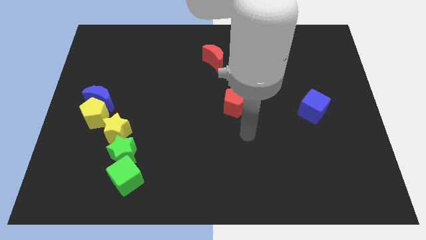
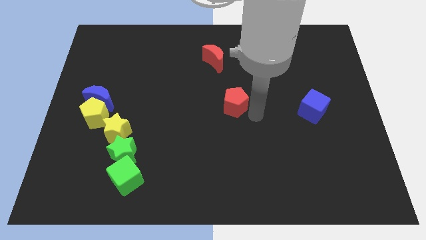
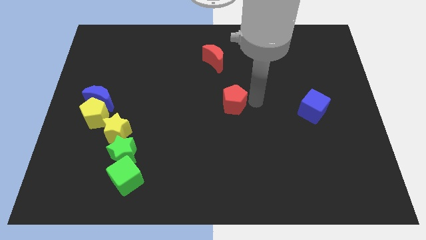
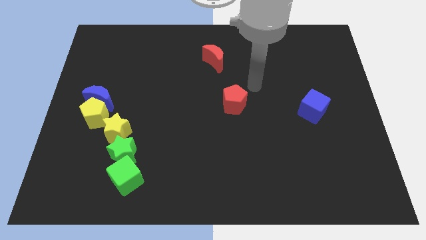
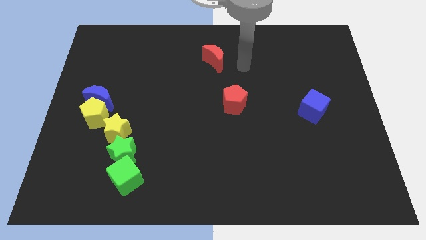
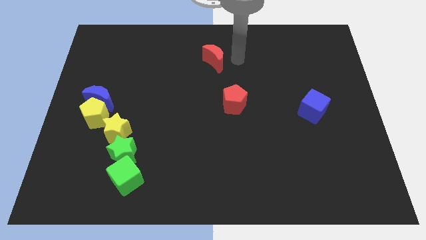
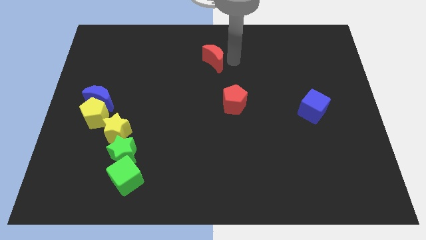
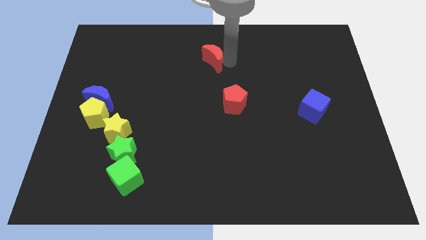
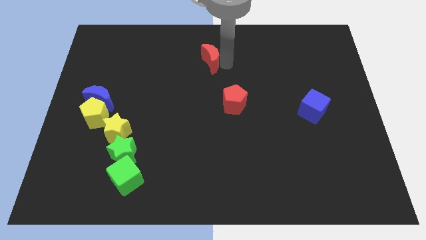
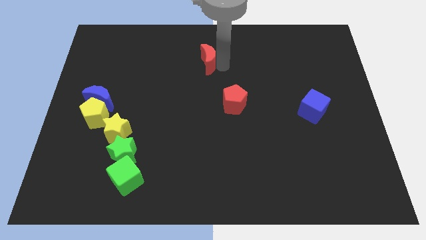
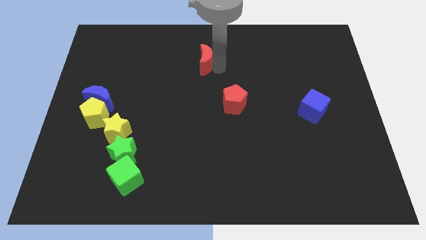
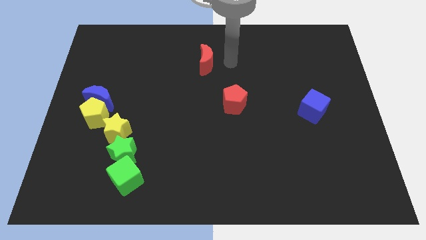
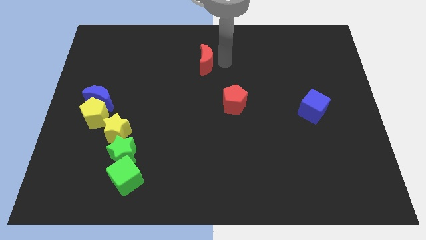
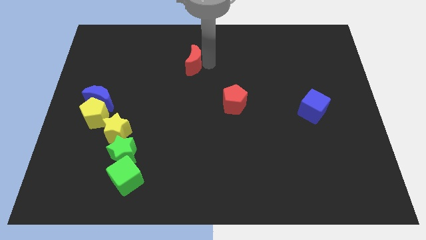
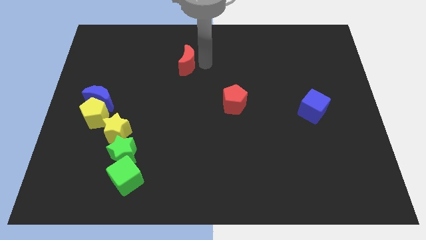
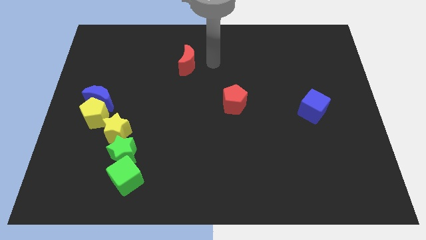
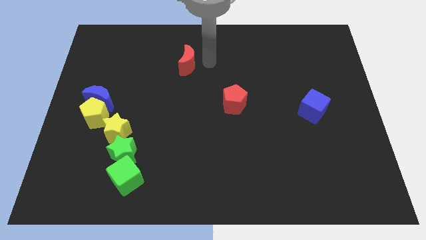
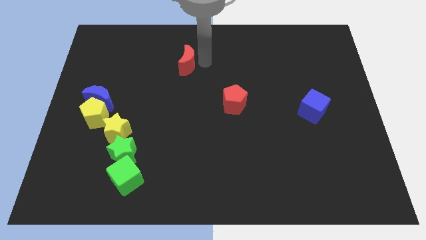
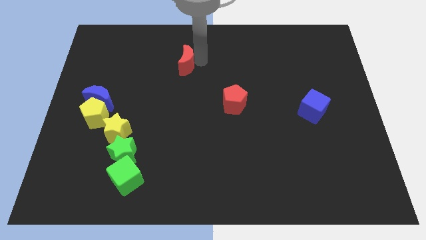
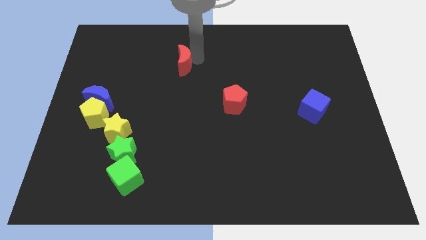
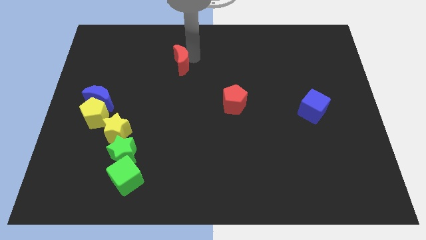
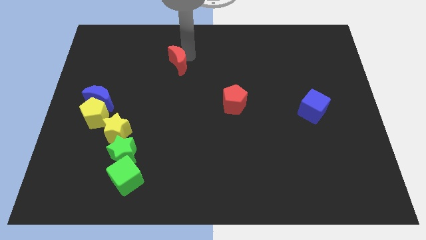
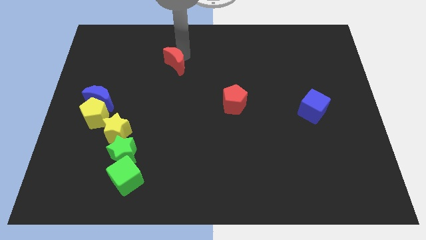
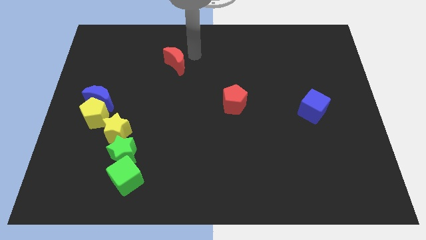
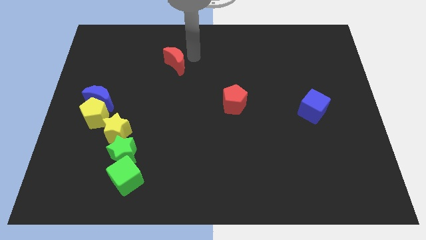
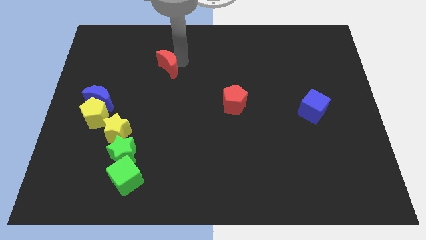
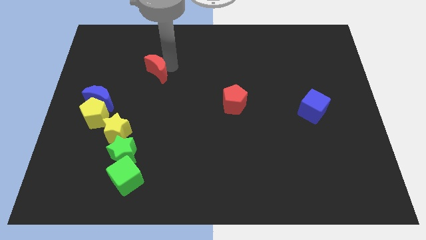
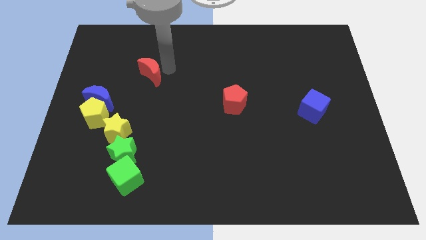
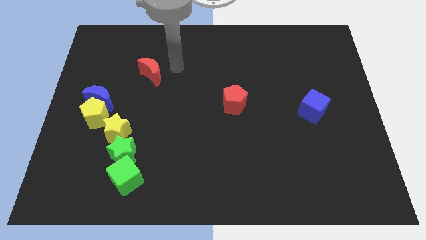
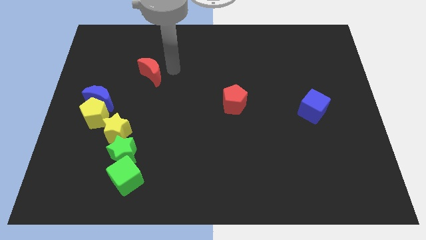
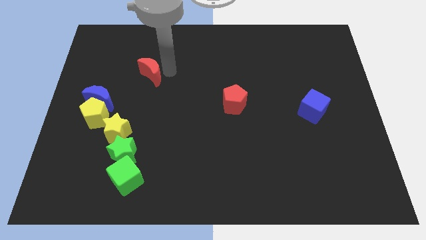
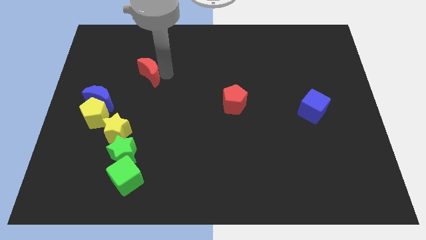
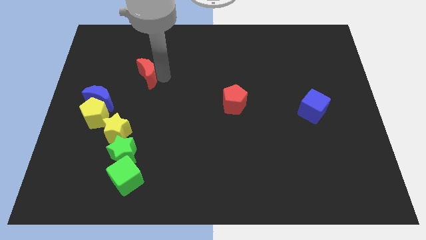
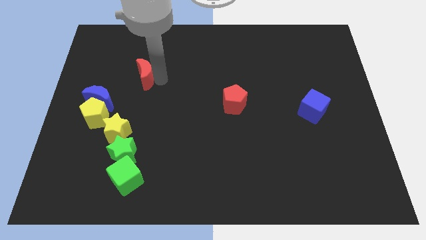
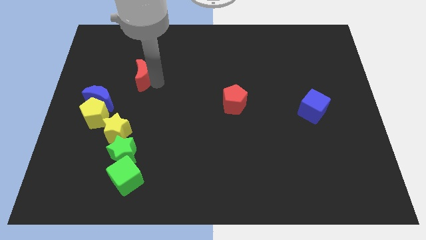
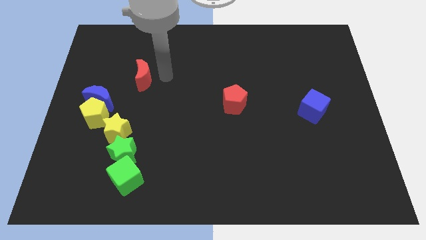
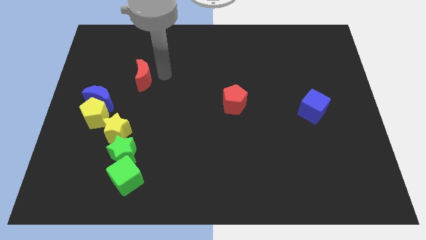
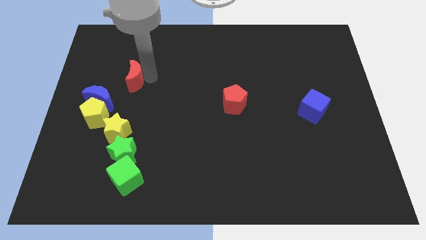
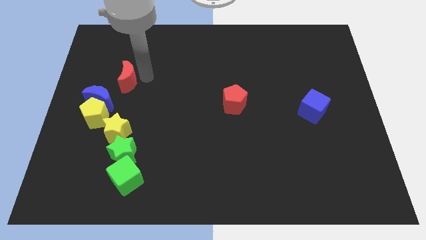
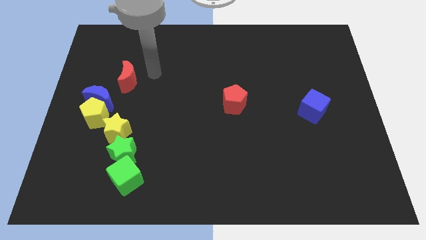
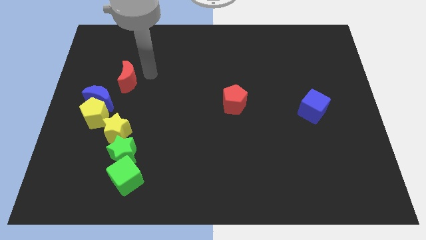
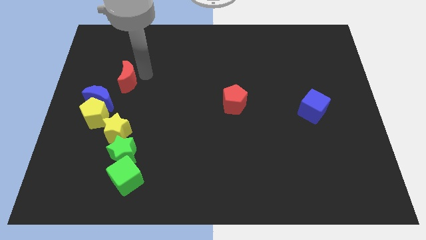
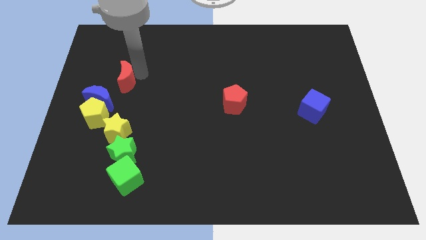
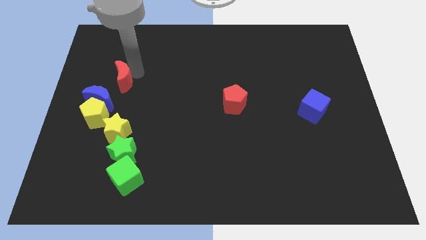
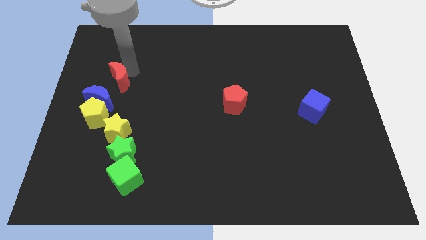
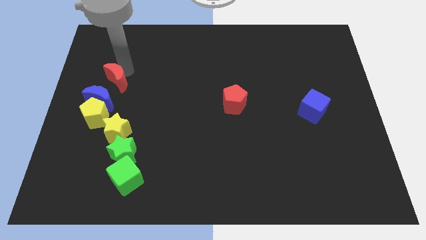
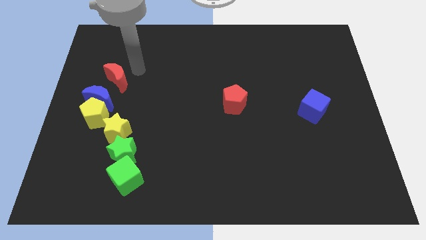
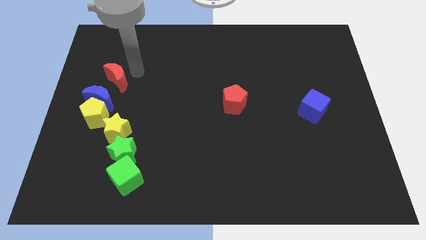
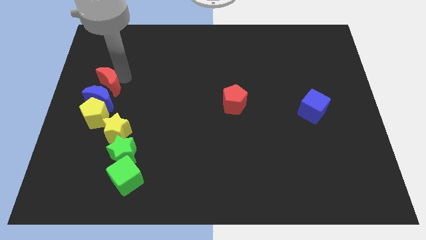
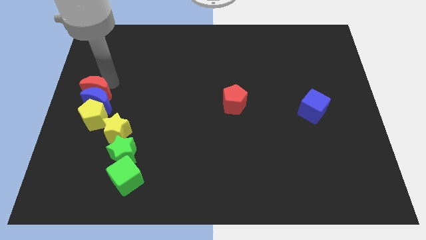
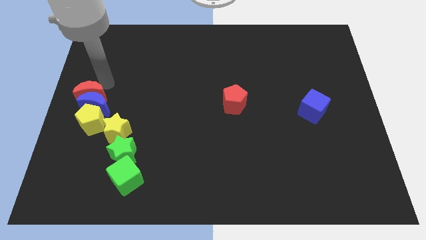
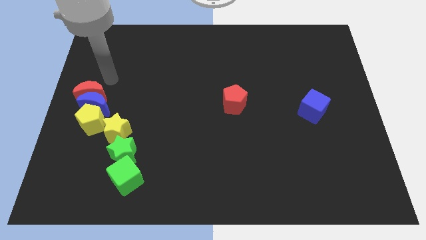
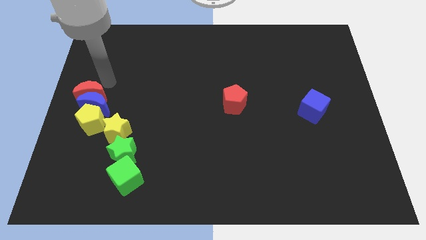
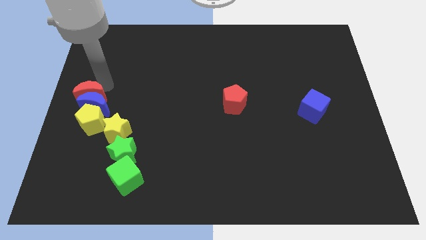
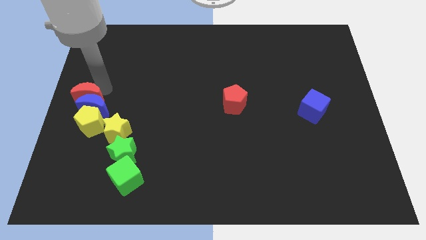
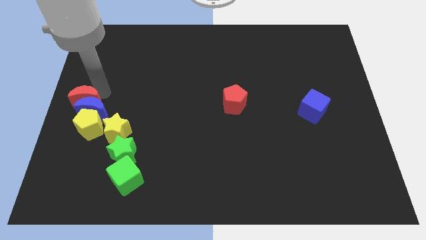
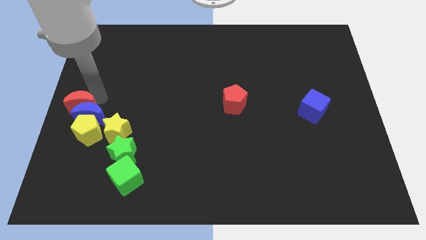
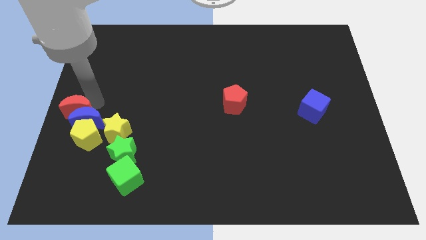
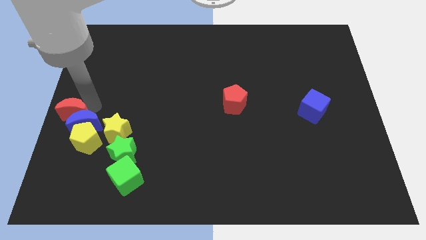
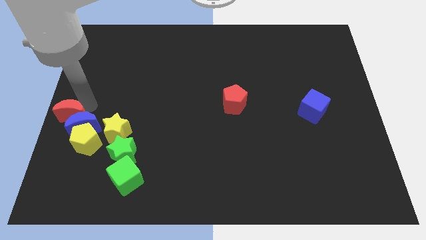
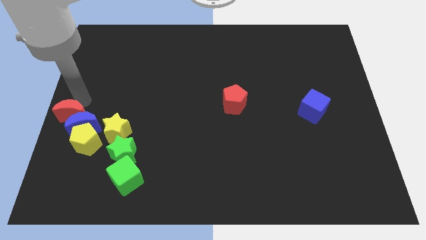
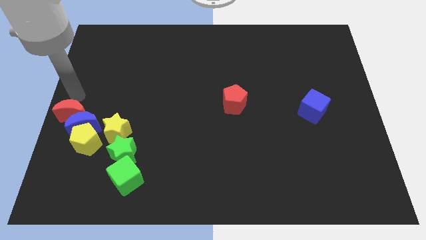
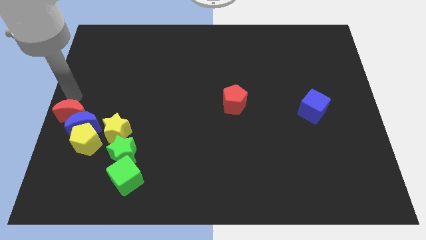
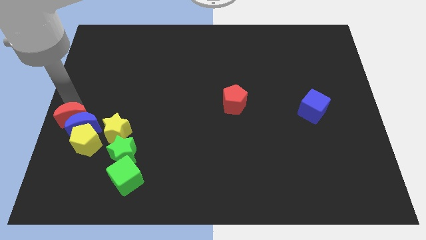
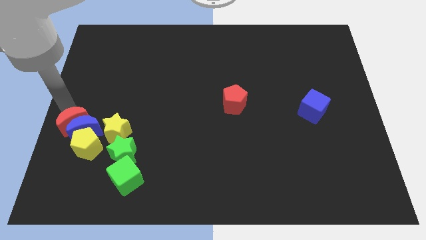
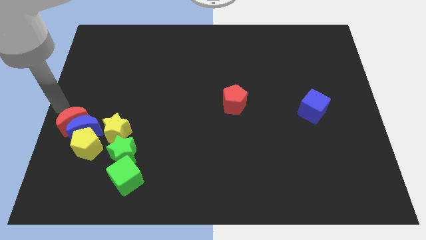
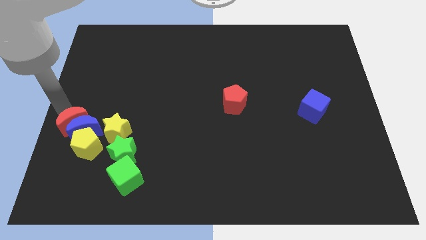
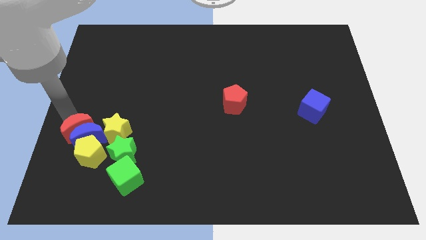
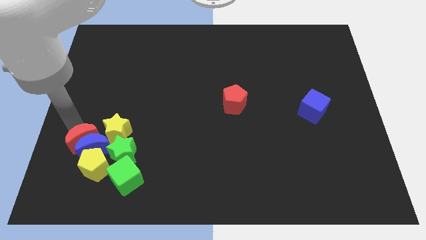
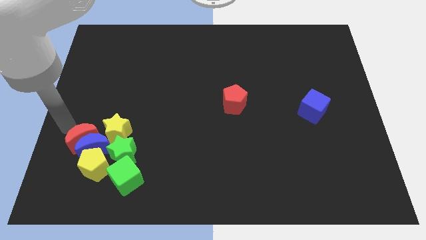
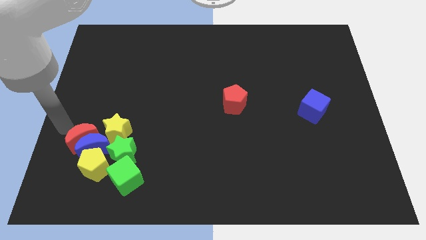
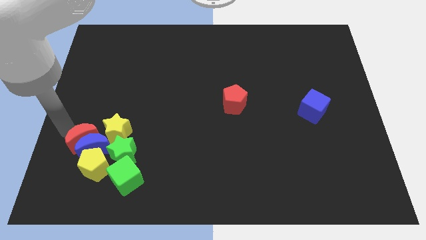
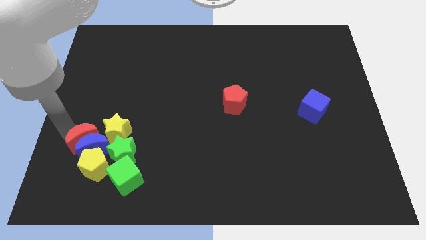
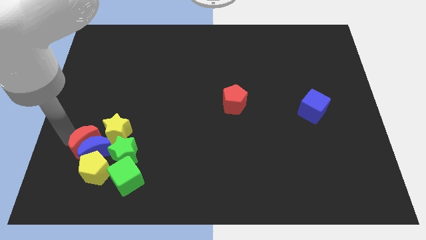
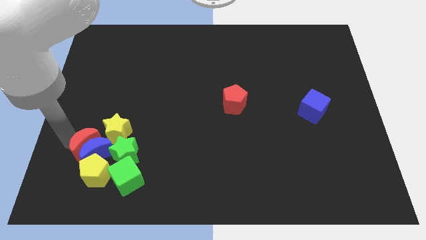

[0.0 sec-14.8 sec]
move the red moon to the top left side of the green cube
